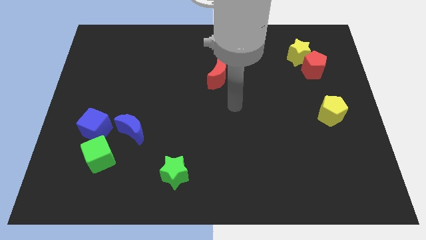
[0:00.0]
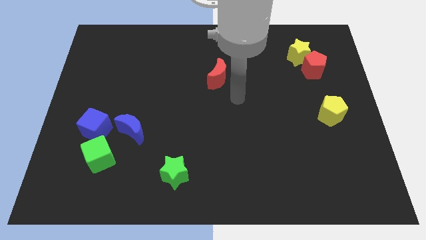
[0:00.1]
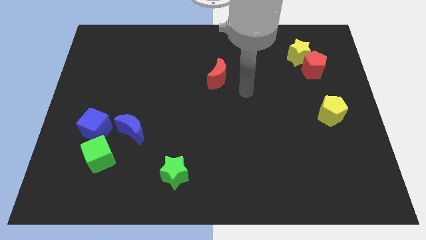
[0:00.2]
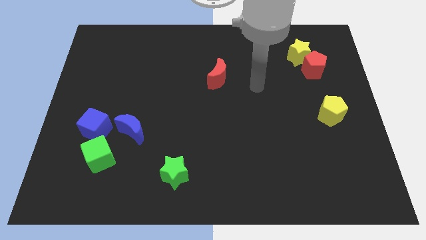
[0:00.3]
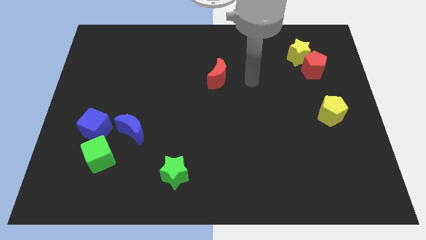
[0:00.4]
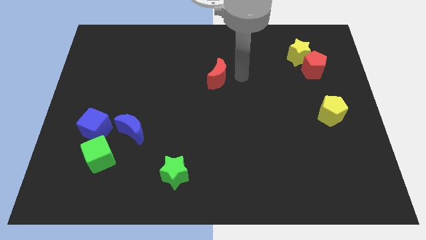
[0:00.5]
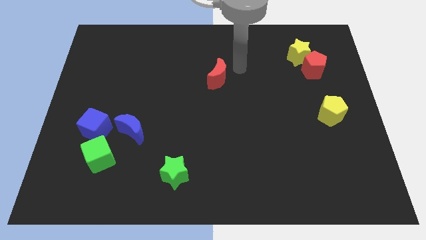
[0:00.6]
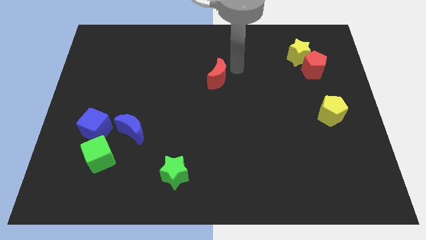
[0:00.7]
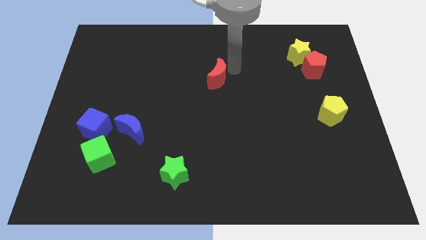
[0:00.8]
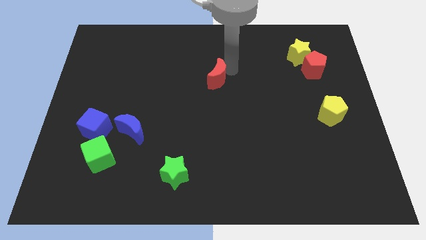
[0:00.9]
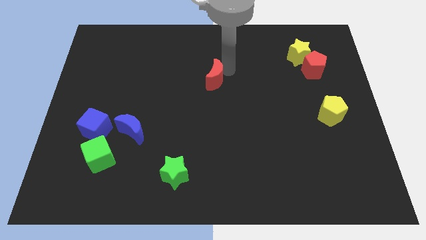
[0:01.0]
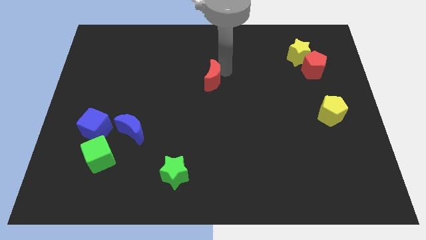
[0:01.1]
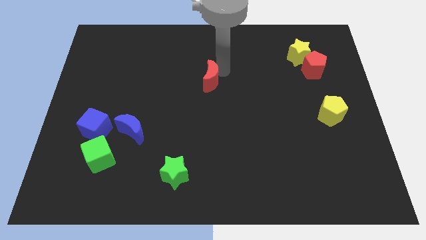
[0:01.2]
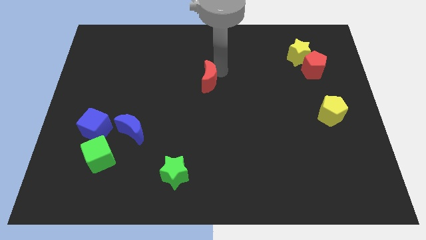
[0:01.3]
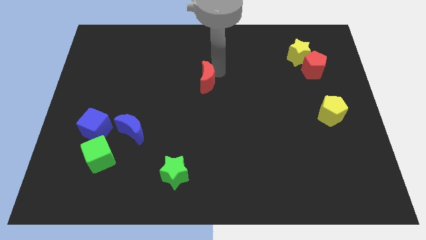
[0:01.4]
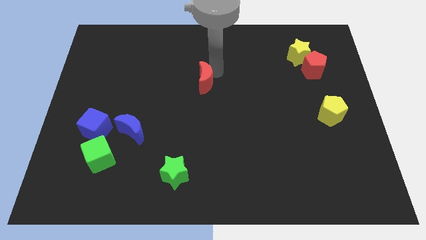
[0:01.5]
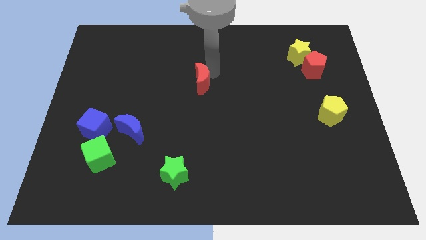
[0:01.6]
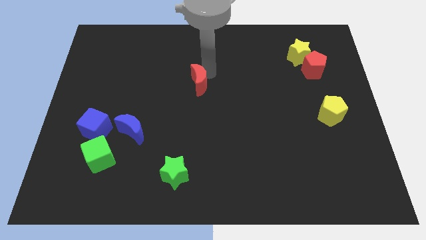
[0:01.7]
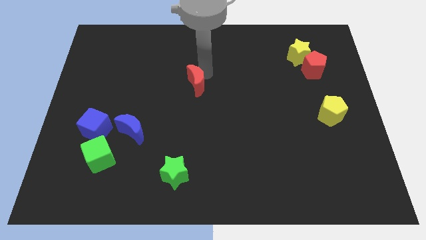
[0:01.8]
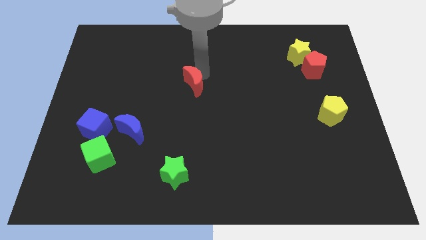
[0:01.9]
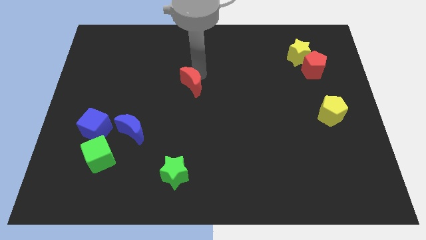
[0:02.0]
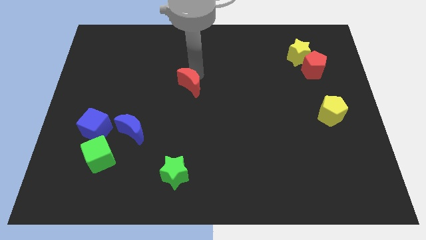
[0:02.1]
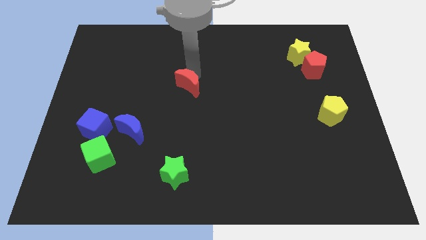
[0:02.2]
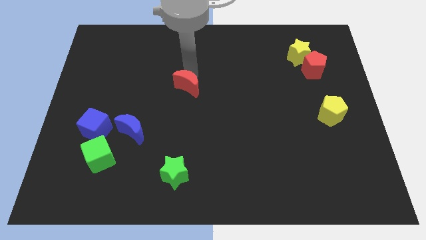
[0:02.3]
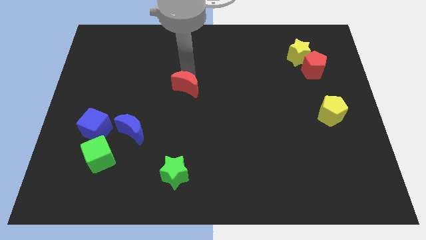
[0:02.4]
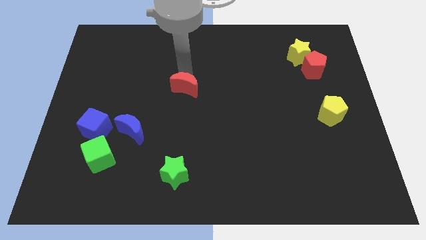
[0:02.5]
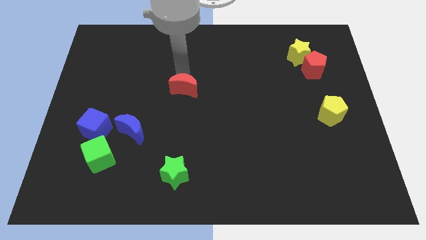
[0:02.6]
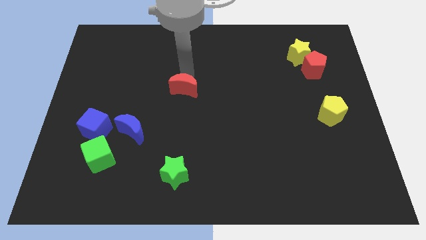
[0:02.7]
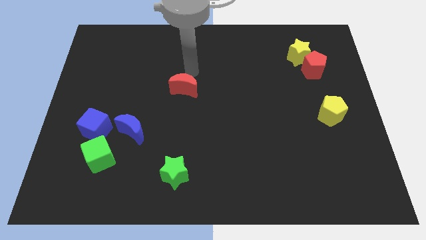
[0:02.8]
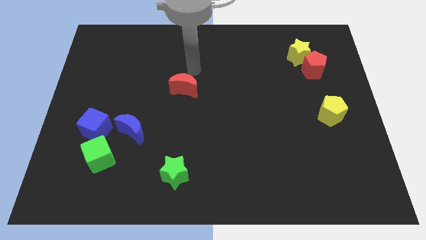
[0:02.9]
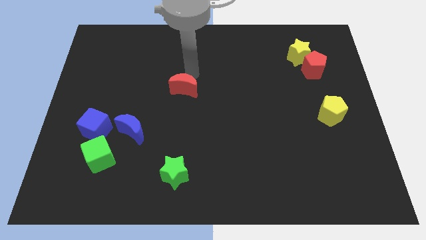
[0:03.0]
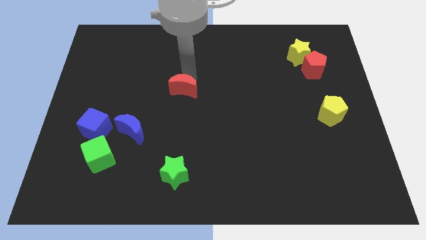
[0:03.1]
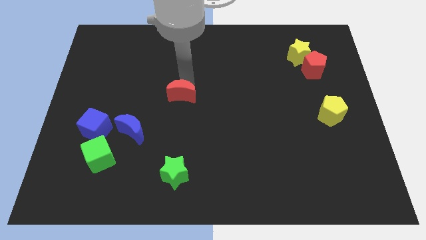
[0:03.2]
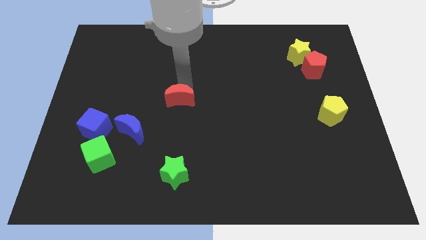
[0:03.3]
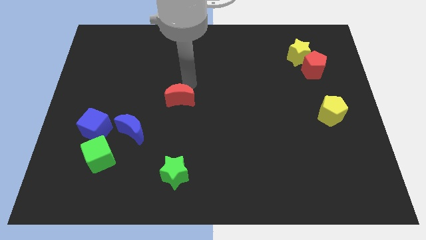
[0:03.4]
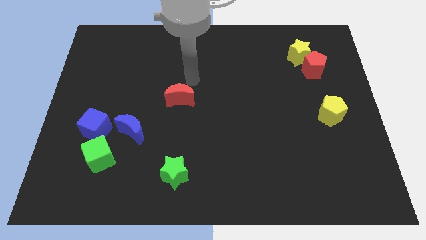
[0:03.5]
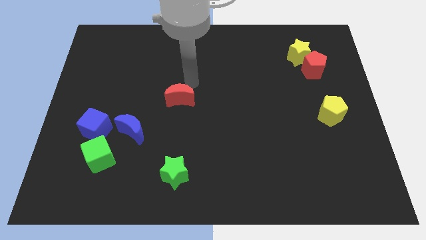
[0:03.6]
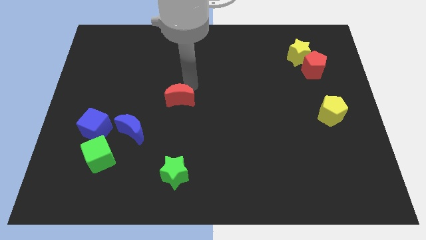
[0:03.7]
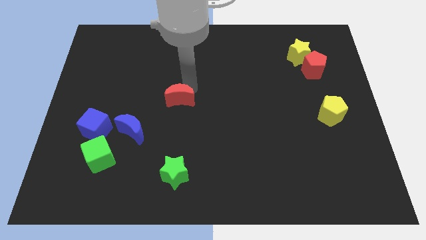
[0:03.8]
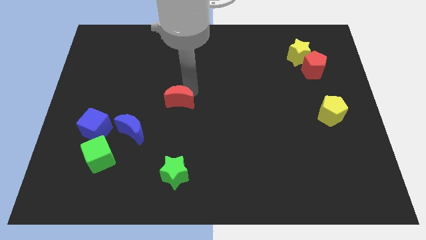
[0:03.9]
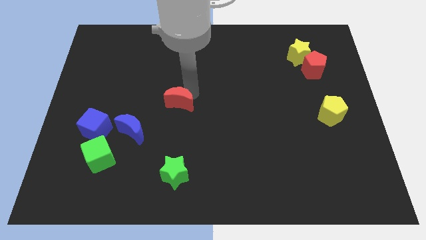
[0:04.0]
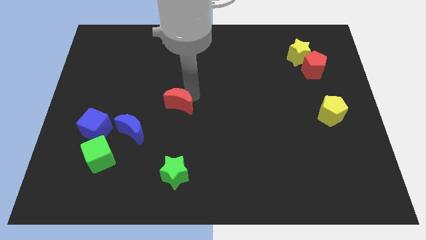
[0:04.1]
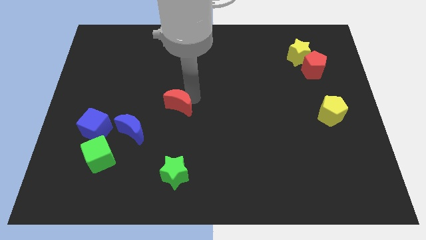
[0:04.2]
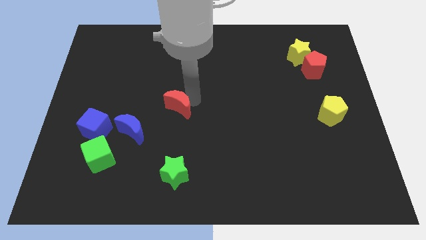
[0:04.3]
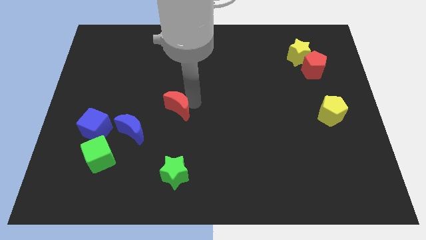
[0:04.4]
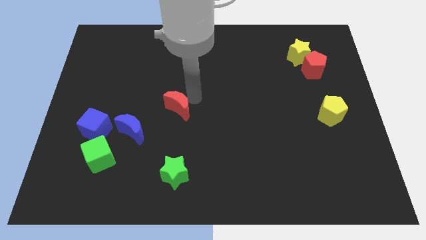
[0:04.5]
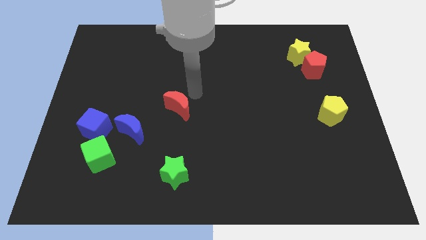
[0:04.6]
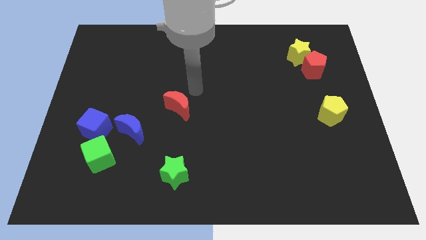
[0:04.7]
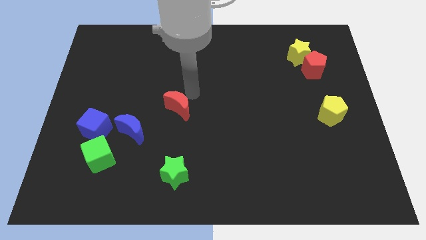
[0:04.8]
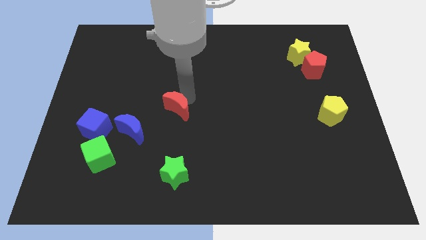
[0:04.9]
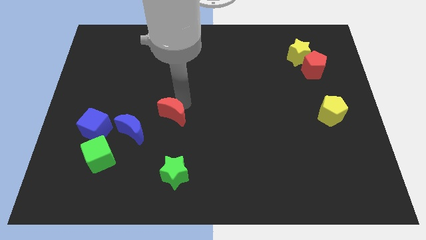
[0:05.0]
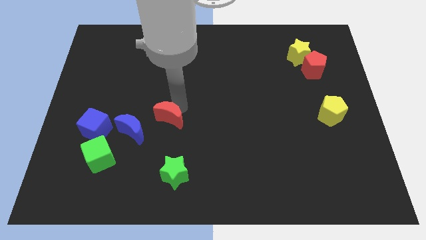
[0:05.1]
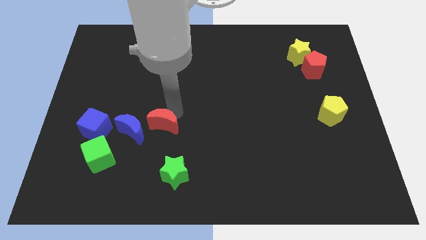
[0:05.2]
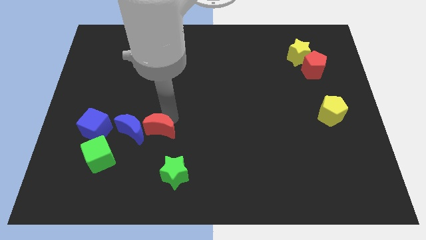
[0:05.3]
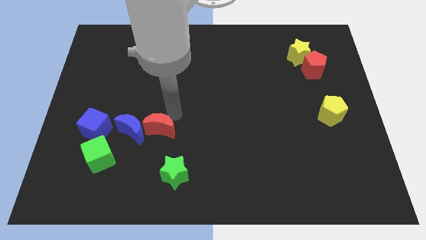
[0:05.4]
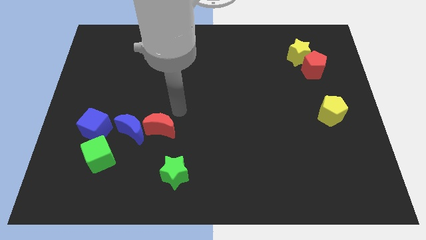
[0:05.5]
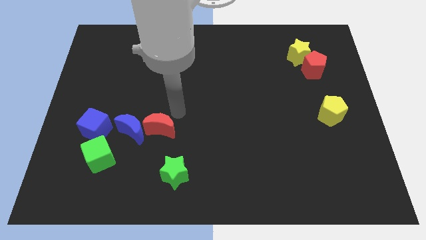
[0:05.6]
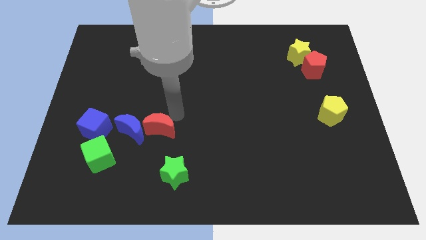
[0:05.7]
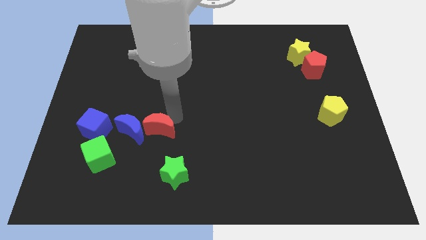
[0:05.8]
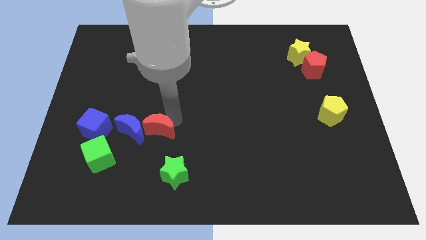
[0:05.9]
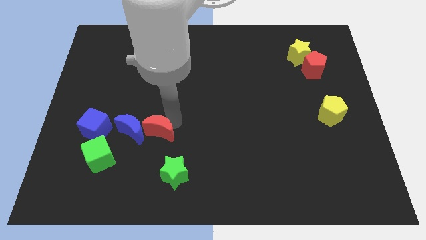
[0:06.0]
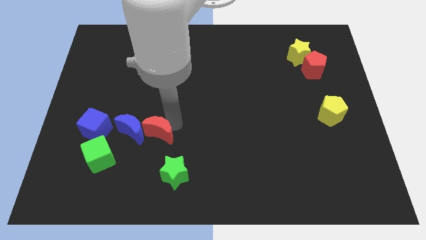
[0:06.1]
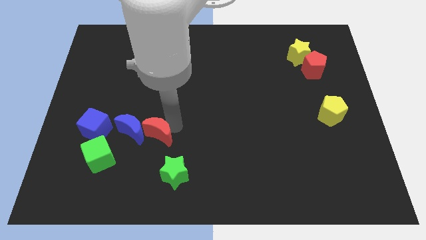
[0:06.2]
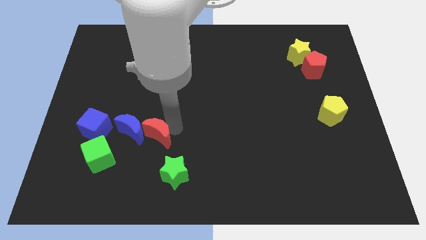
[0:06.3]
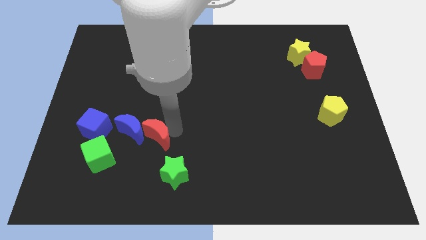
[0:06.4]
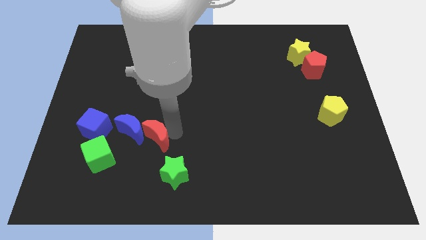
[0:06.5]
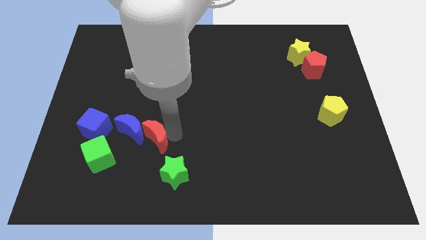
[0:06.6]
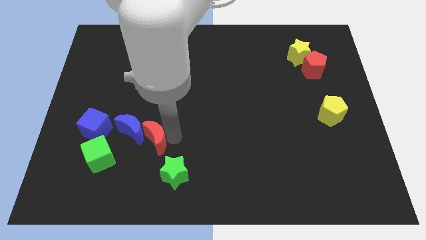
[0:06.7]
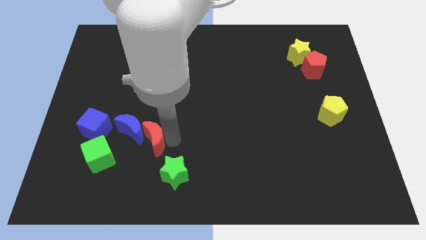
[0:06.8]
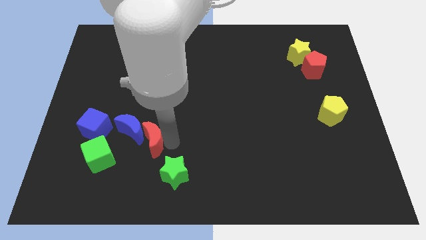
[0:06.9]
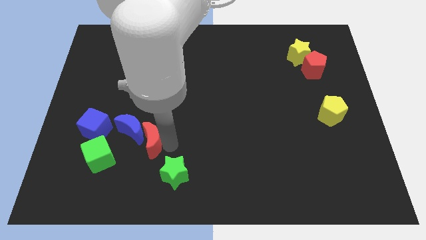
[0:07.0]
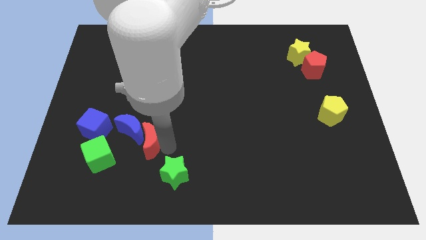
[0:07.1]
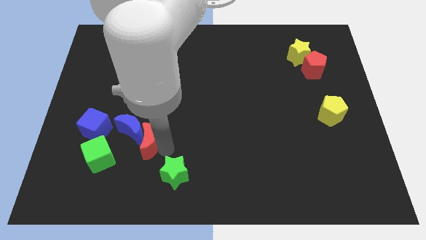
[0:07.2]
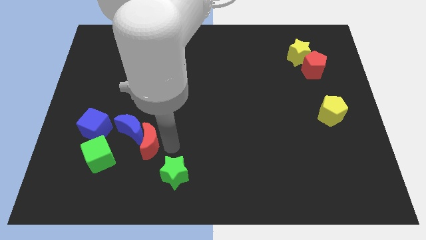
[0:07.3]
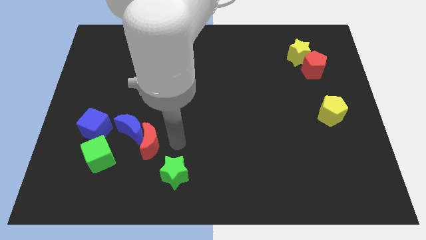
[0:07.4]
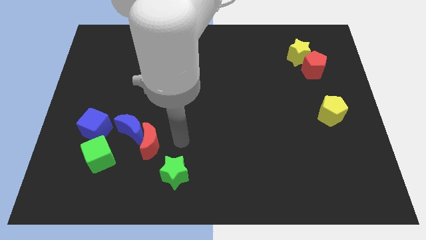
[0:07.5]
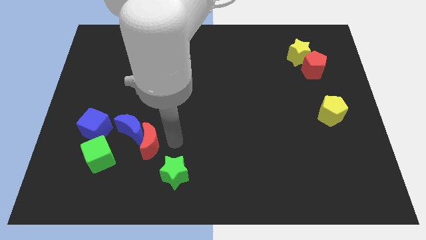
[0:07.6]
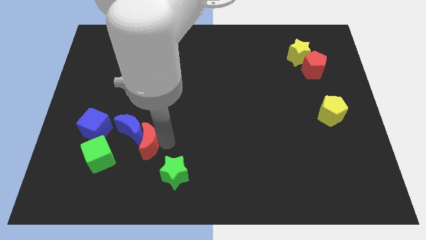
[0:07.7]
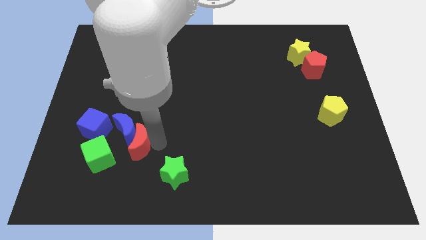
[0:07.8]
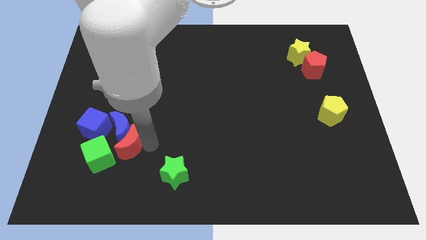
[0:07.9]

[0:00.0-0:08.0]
move the red moon to the bottom right side of the blue cube
